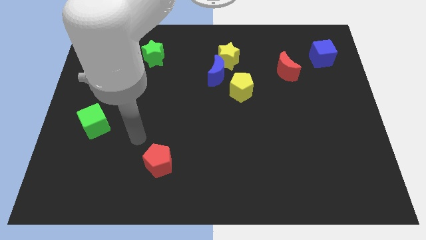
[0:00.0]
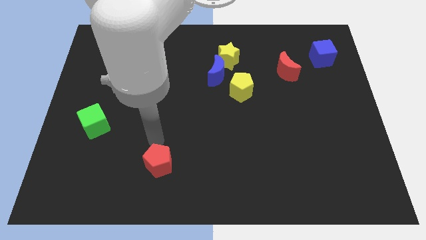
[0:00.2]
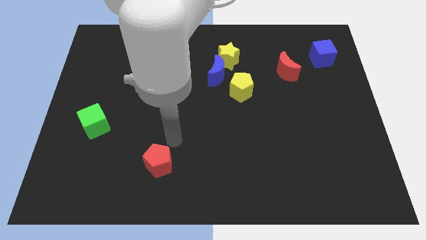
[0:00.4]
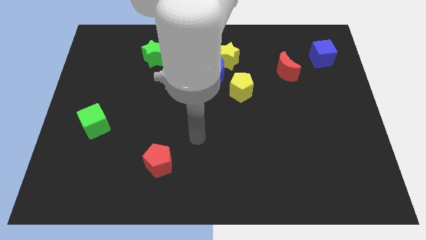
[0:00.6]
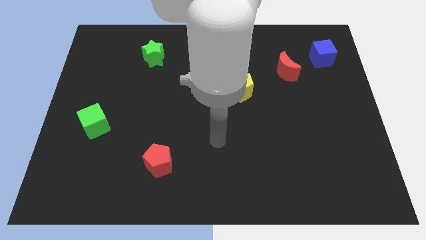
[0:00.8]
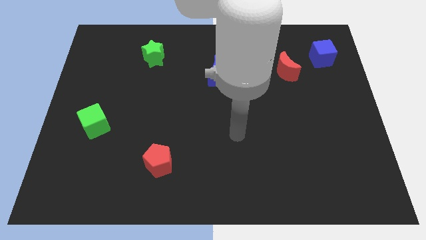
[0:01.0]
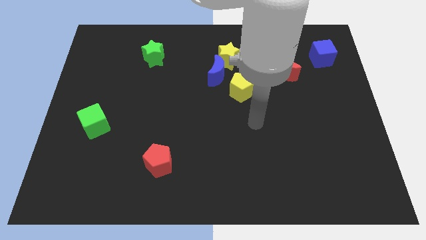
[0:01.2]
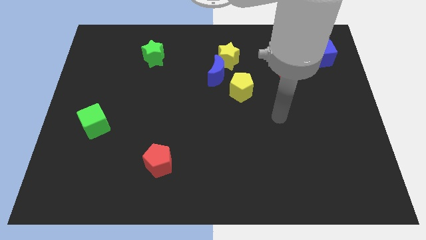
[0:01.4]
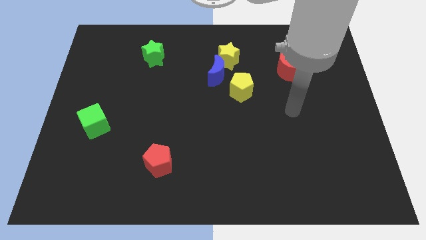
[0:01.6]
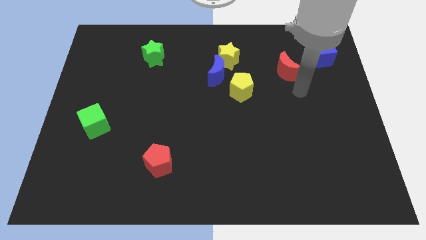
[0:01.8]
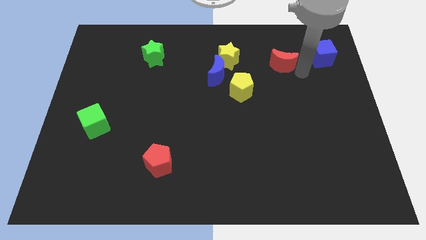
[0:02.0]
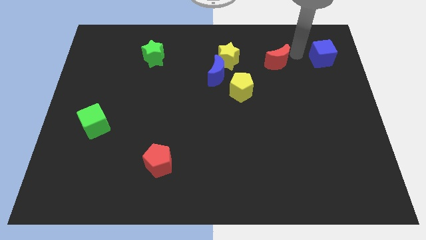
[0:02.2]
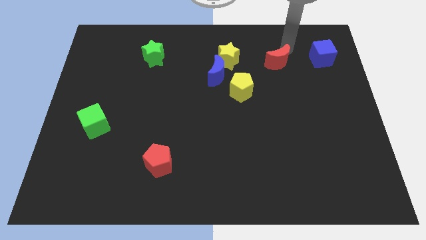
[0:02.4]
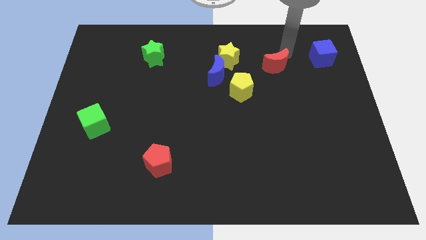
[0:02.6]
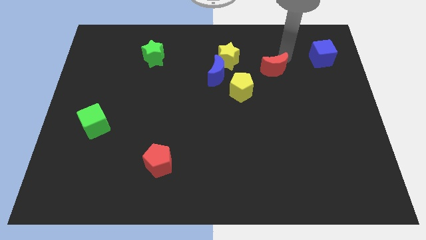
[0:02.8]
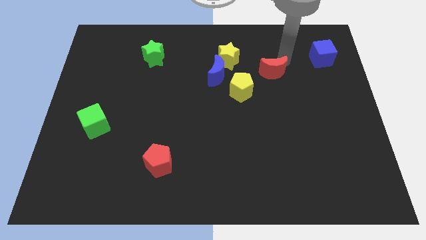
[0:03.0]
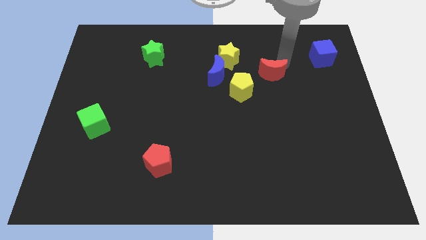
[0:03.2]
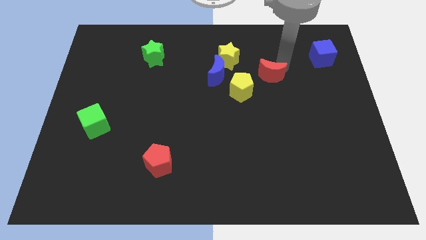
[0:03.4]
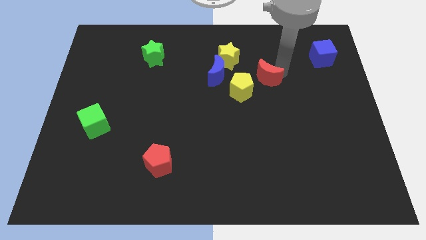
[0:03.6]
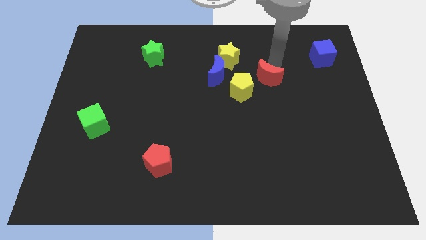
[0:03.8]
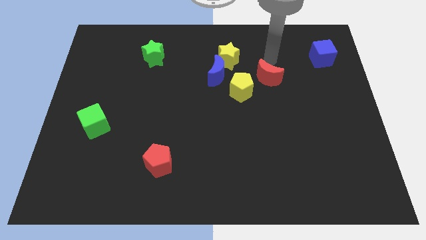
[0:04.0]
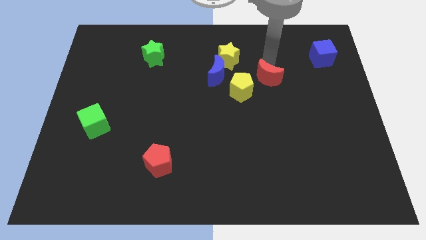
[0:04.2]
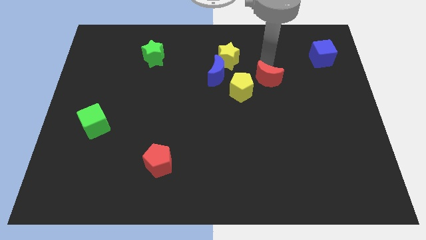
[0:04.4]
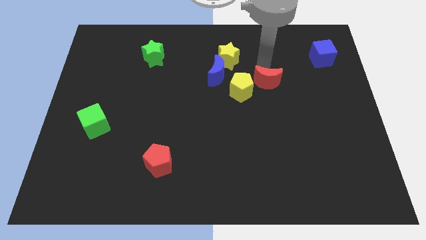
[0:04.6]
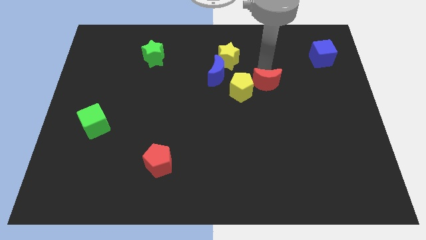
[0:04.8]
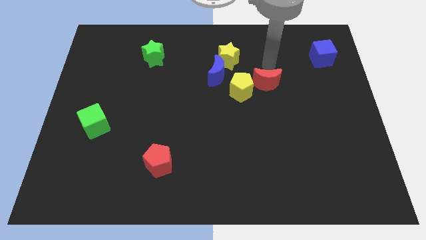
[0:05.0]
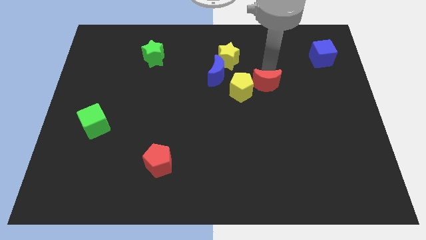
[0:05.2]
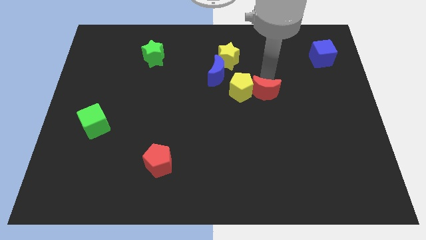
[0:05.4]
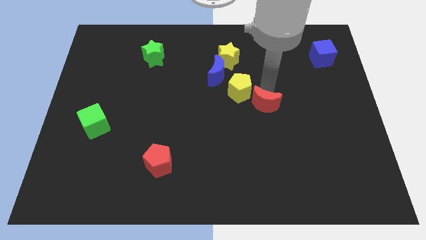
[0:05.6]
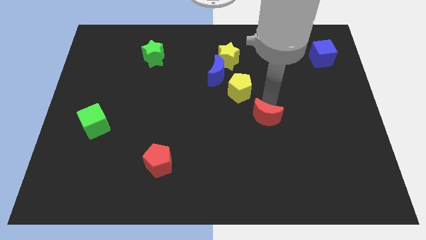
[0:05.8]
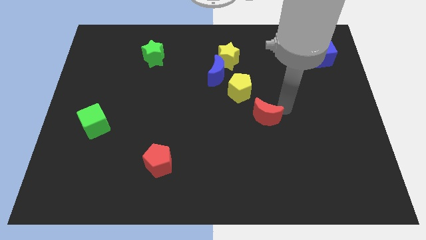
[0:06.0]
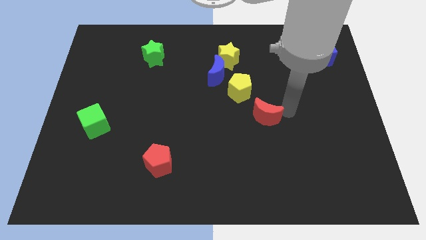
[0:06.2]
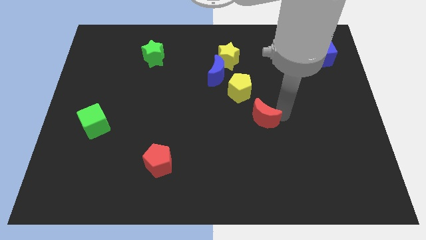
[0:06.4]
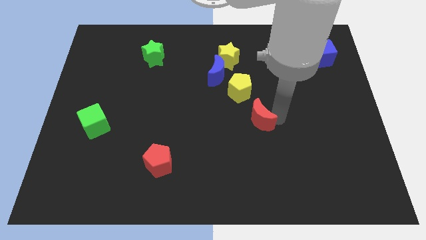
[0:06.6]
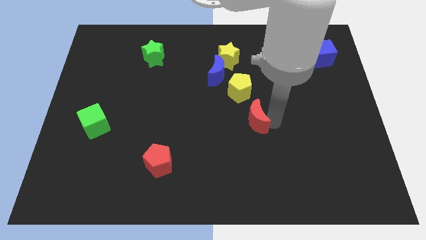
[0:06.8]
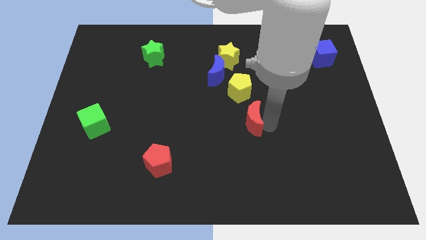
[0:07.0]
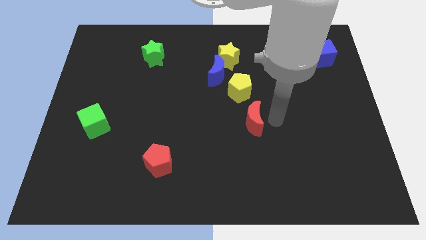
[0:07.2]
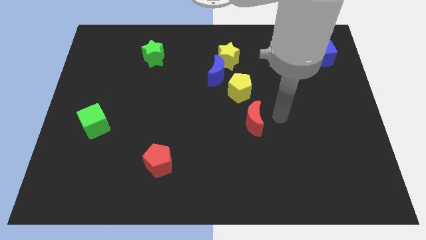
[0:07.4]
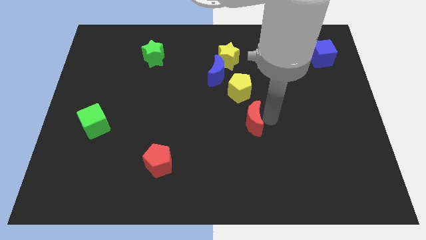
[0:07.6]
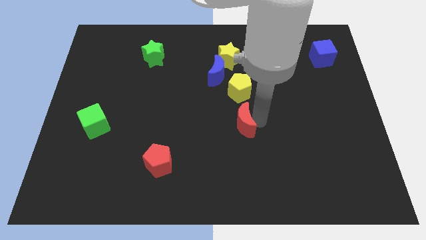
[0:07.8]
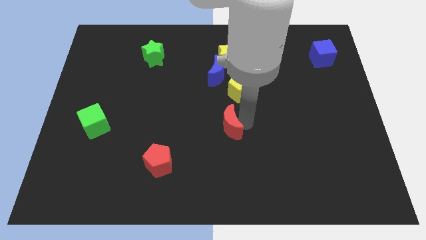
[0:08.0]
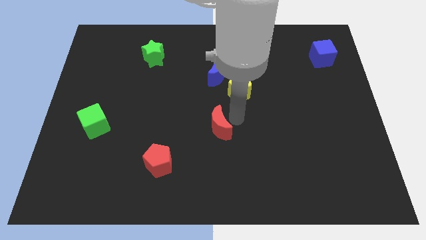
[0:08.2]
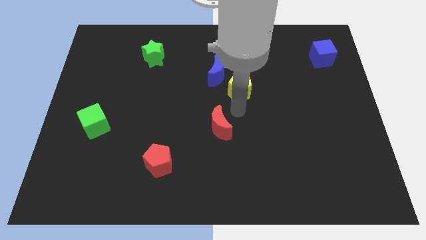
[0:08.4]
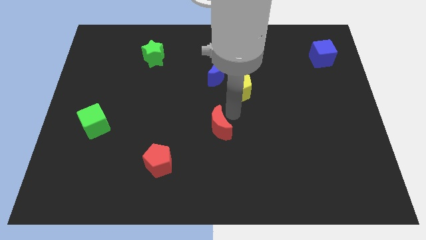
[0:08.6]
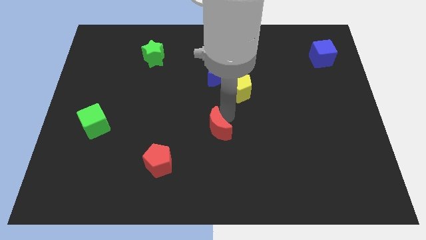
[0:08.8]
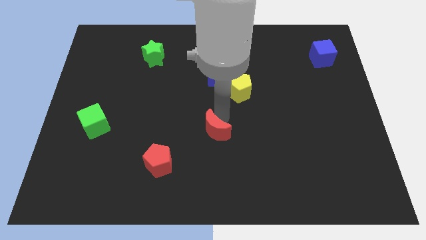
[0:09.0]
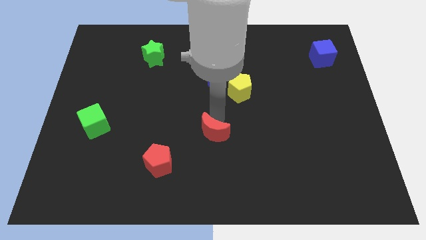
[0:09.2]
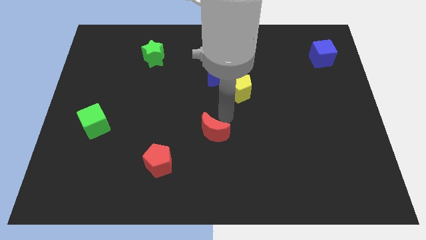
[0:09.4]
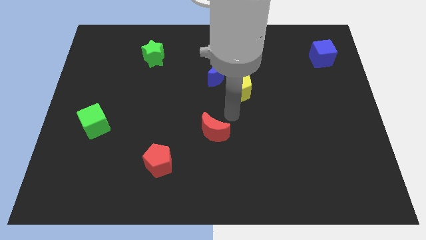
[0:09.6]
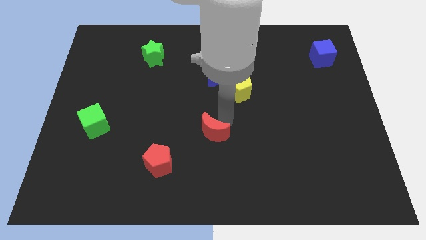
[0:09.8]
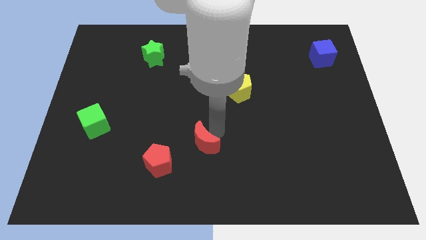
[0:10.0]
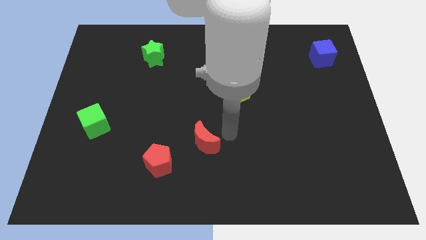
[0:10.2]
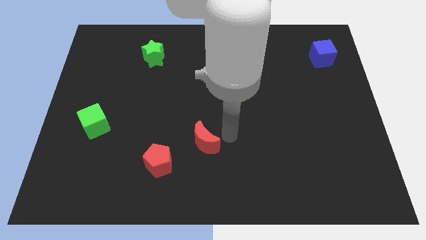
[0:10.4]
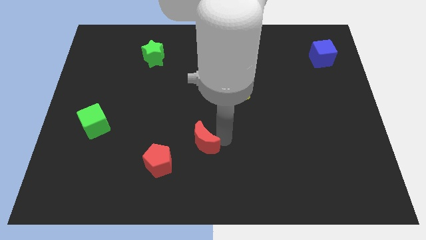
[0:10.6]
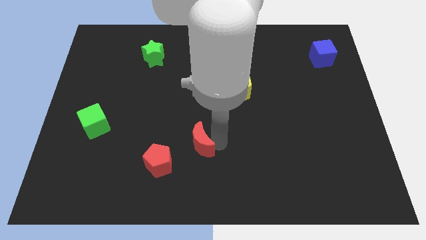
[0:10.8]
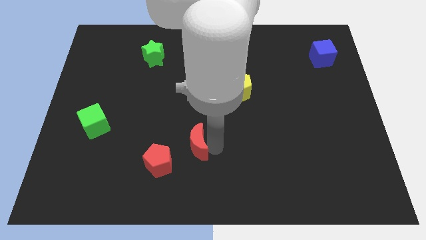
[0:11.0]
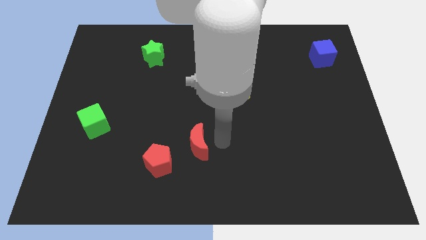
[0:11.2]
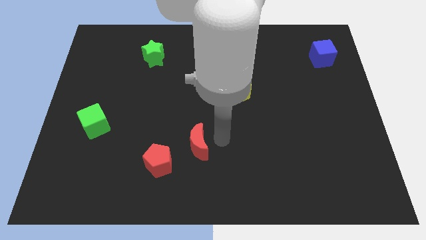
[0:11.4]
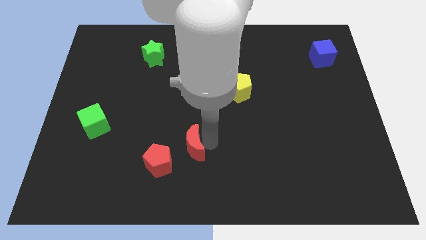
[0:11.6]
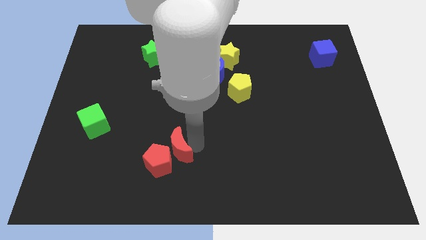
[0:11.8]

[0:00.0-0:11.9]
slide the red moon towards the red pentagon

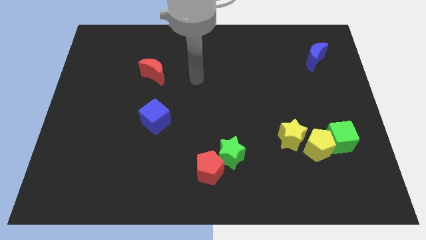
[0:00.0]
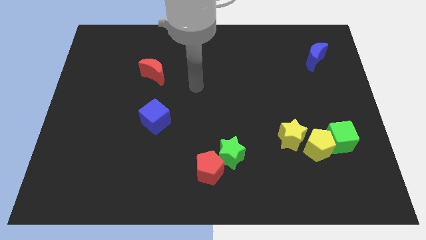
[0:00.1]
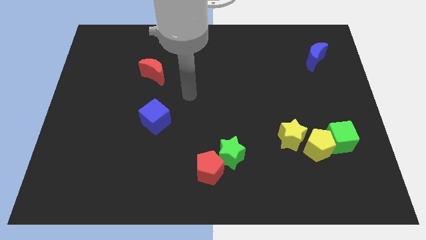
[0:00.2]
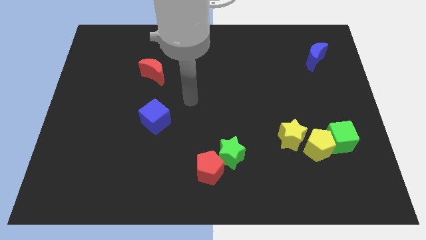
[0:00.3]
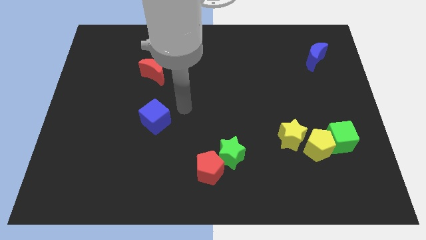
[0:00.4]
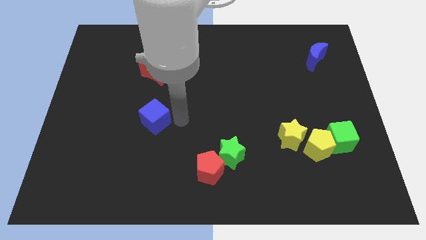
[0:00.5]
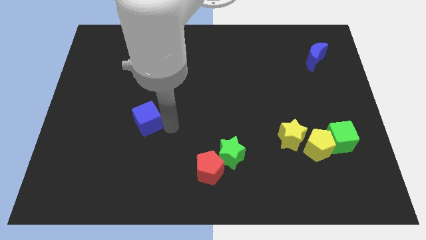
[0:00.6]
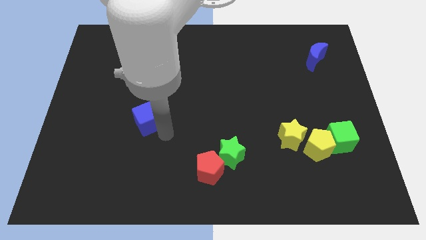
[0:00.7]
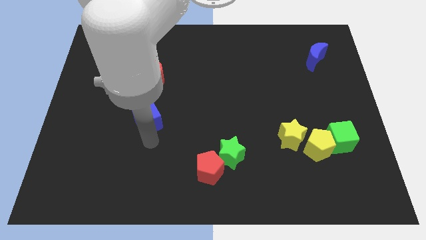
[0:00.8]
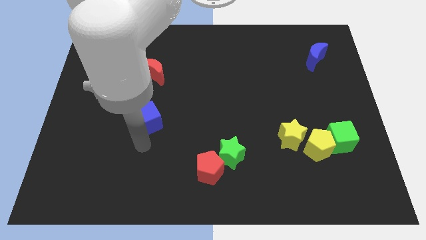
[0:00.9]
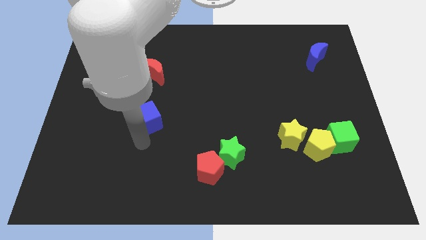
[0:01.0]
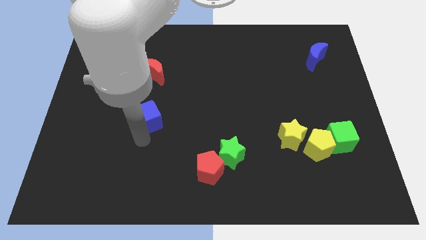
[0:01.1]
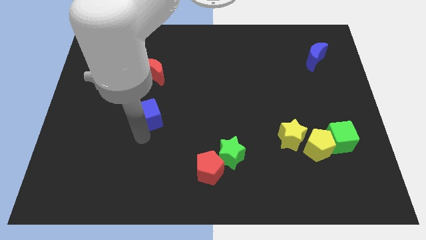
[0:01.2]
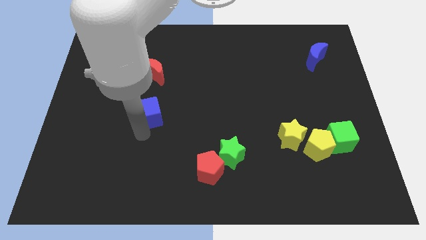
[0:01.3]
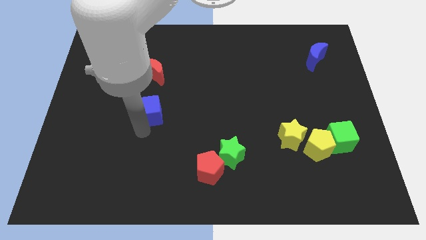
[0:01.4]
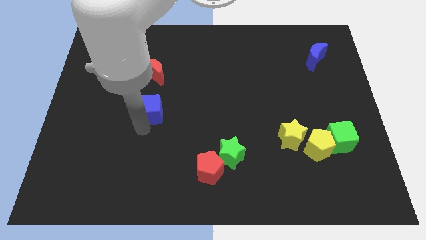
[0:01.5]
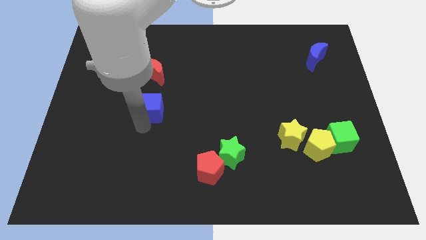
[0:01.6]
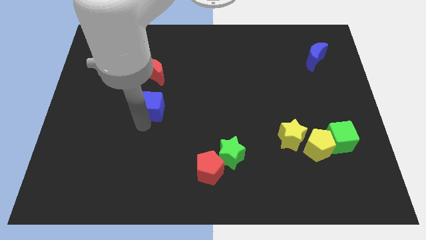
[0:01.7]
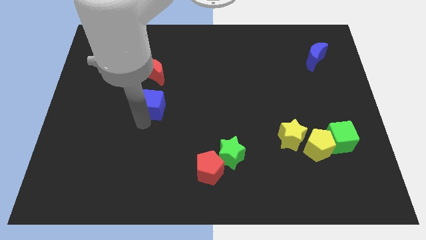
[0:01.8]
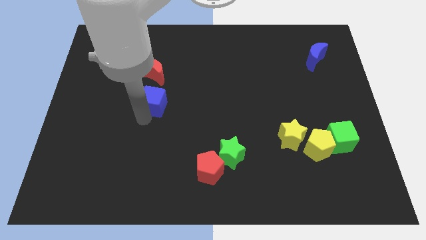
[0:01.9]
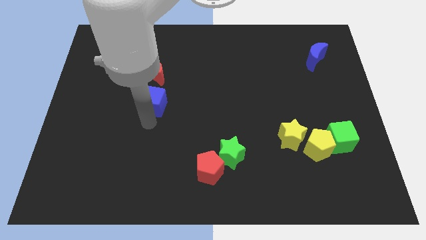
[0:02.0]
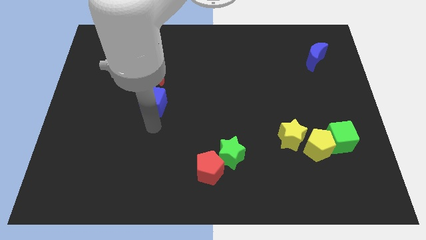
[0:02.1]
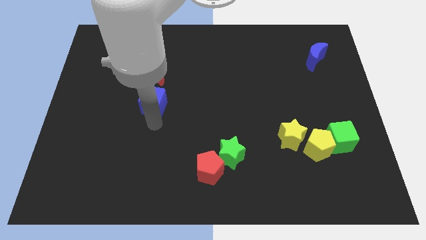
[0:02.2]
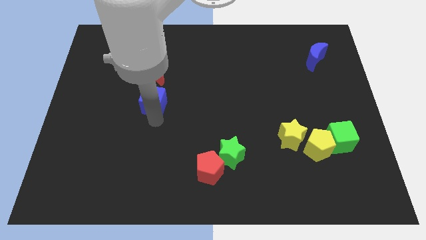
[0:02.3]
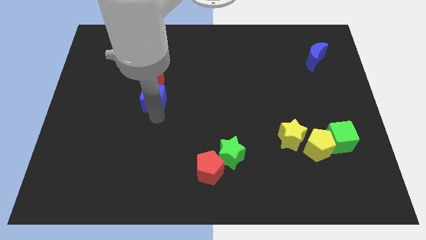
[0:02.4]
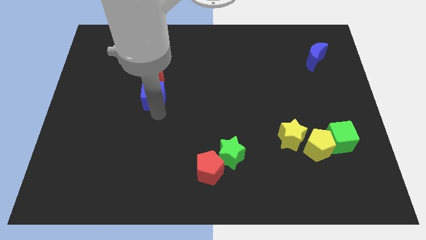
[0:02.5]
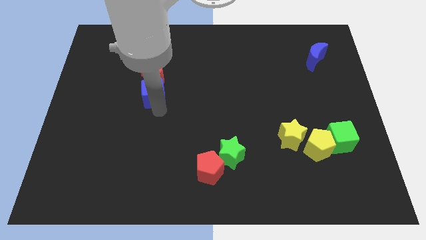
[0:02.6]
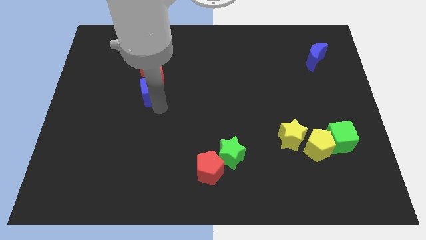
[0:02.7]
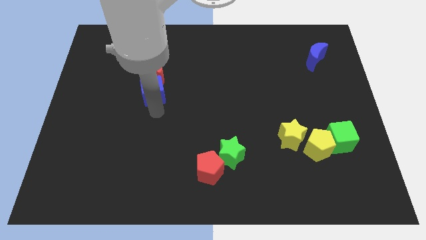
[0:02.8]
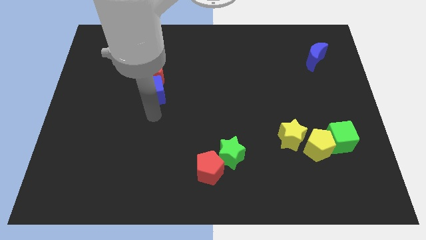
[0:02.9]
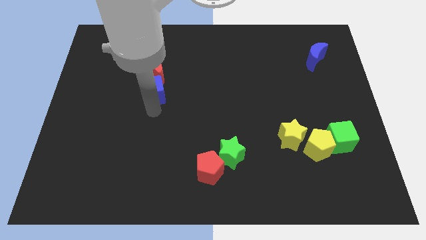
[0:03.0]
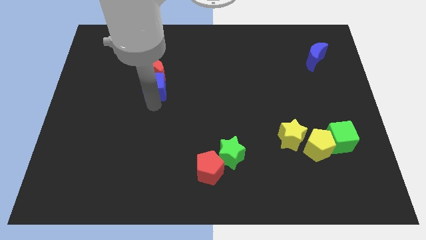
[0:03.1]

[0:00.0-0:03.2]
put the blue cube close to the red moon
